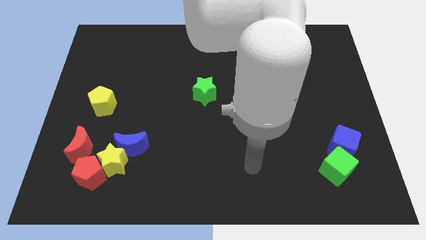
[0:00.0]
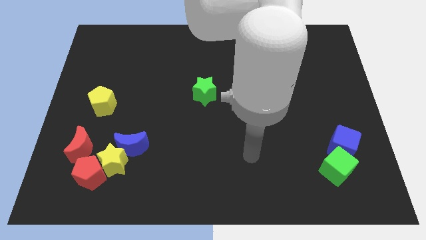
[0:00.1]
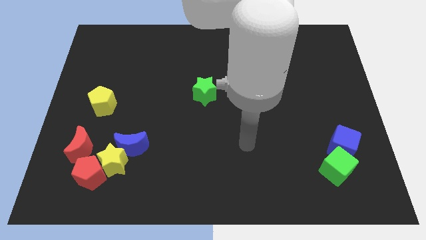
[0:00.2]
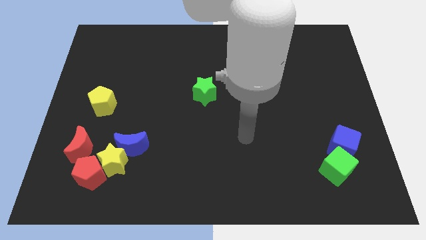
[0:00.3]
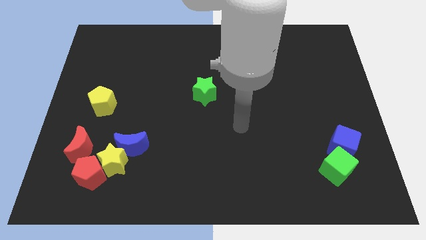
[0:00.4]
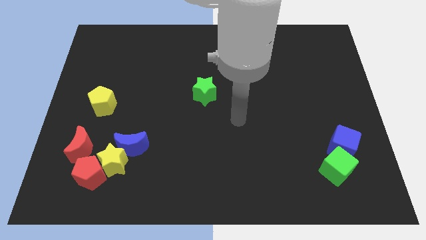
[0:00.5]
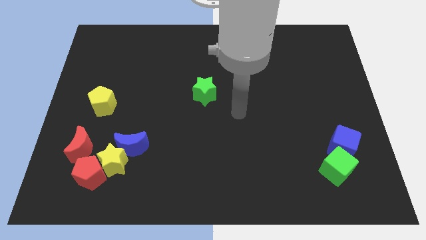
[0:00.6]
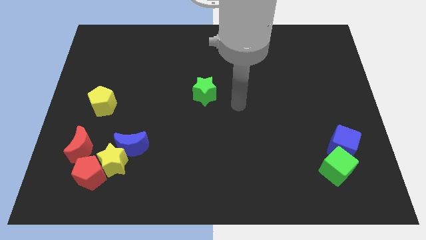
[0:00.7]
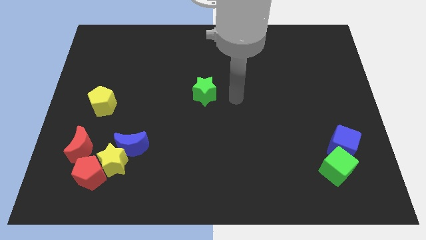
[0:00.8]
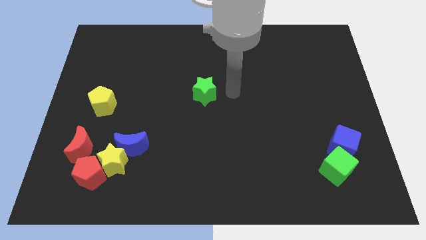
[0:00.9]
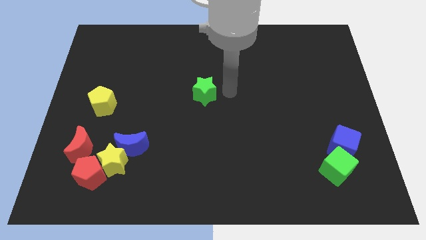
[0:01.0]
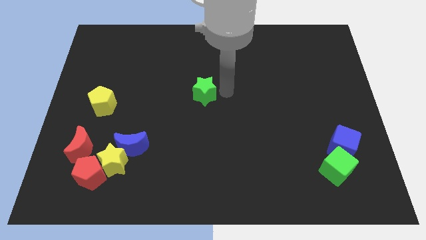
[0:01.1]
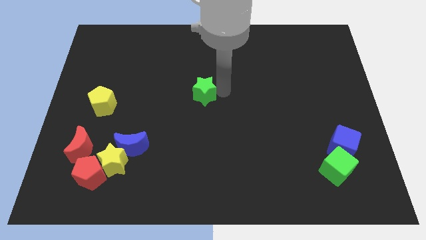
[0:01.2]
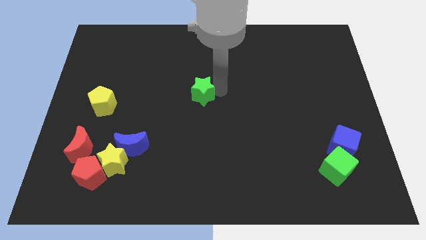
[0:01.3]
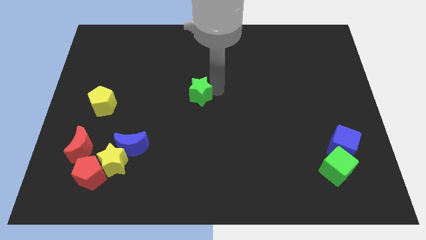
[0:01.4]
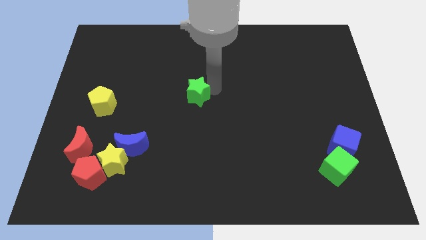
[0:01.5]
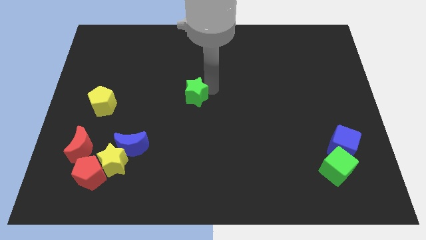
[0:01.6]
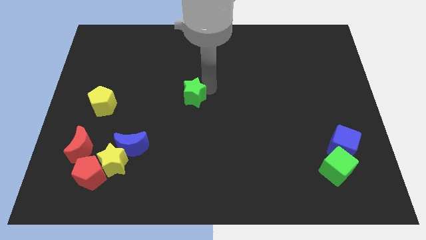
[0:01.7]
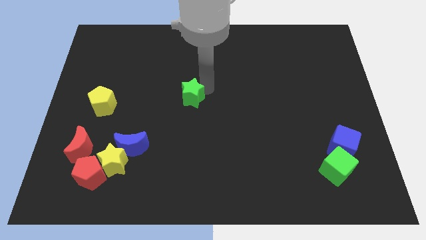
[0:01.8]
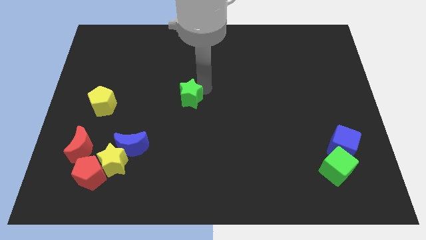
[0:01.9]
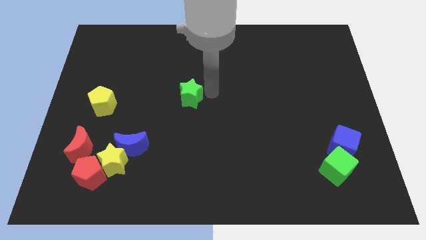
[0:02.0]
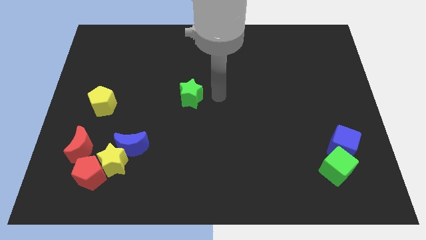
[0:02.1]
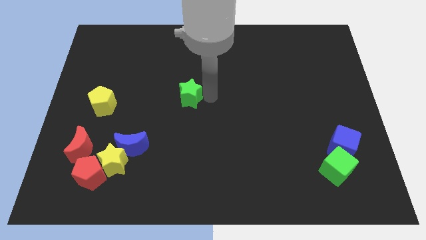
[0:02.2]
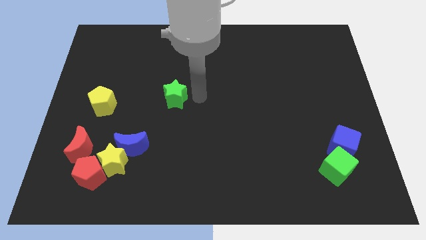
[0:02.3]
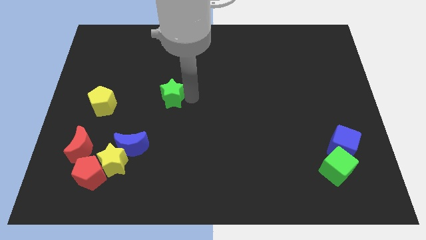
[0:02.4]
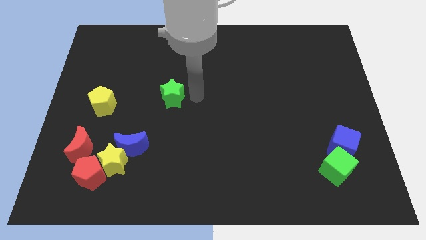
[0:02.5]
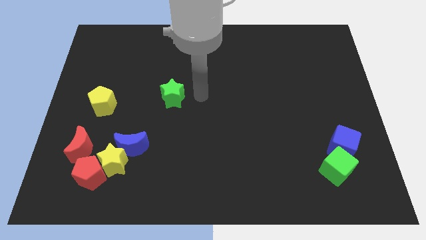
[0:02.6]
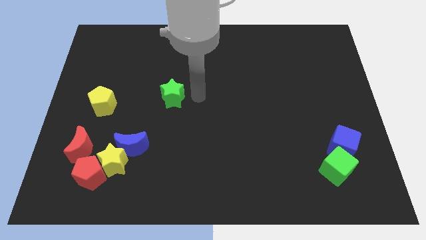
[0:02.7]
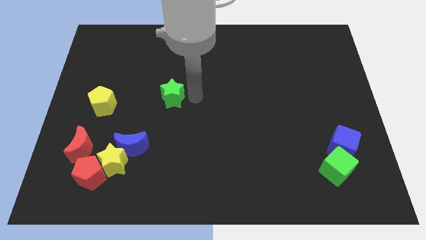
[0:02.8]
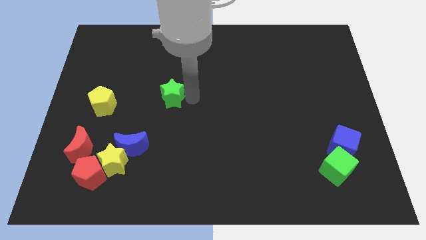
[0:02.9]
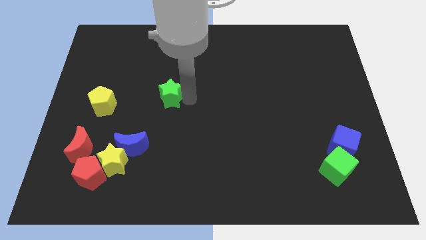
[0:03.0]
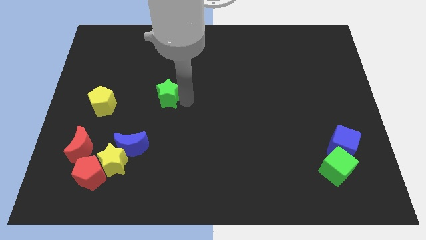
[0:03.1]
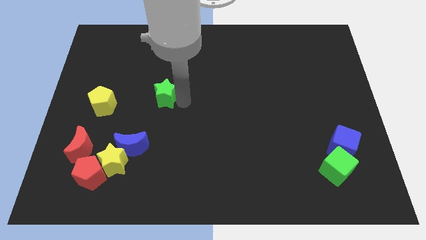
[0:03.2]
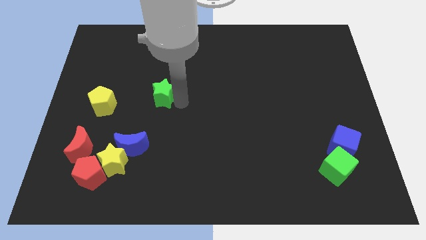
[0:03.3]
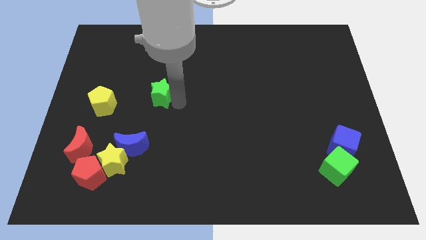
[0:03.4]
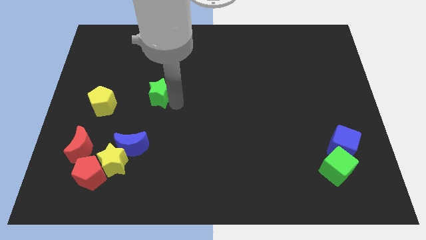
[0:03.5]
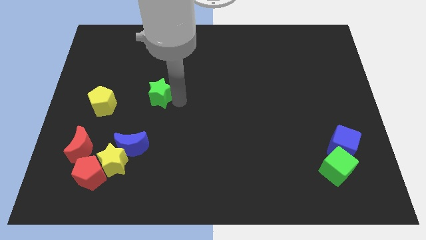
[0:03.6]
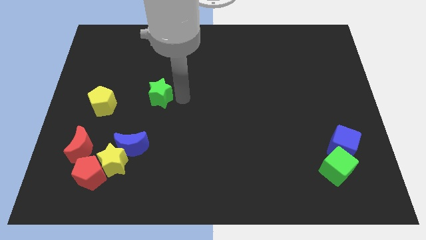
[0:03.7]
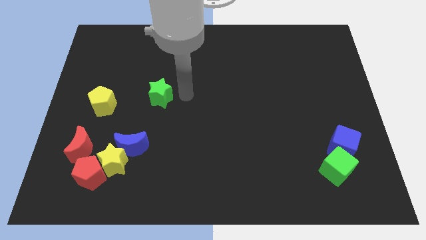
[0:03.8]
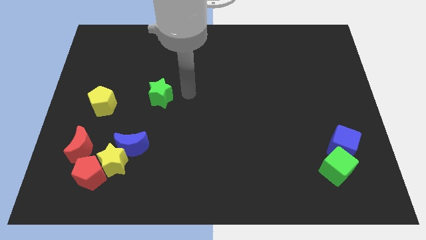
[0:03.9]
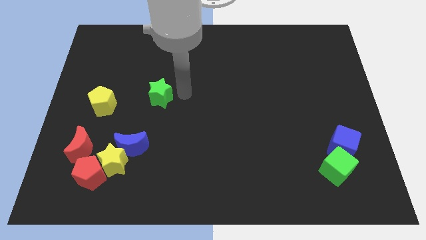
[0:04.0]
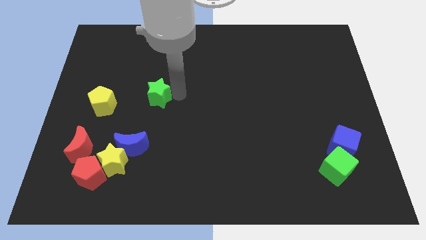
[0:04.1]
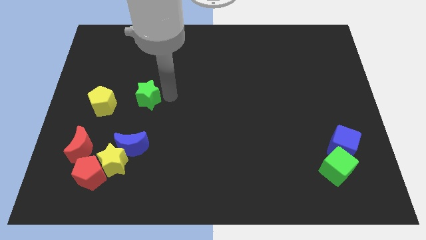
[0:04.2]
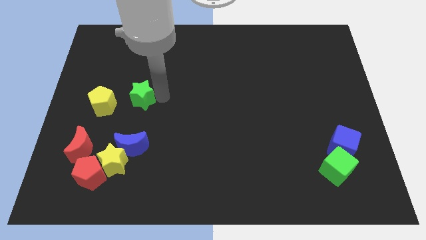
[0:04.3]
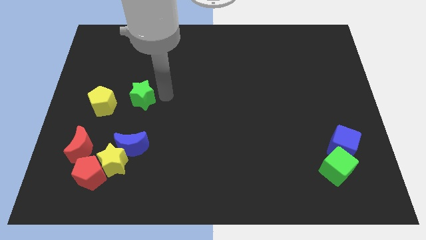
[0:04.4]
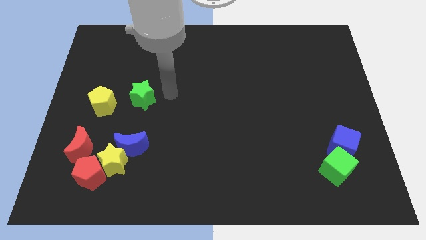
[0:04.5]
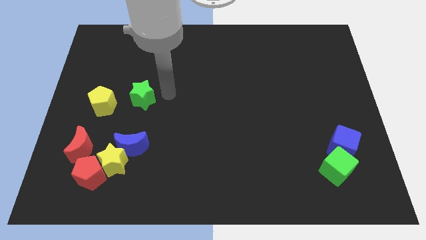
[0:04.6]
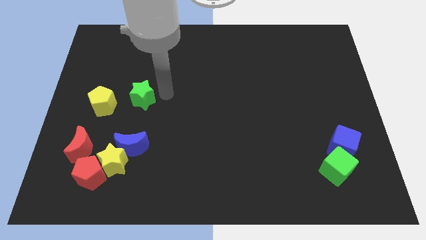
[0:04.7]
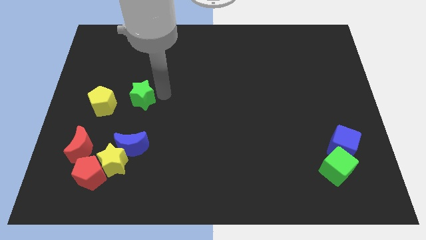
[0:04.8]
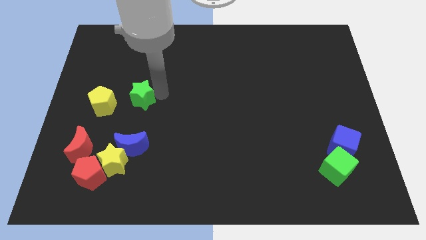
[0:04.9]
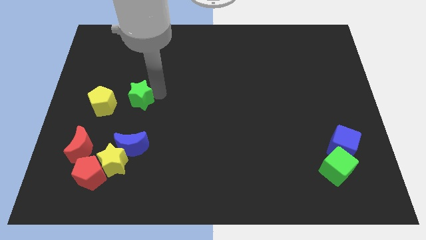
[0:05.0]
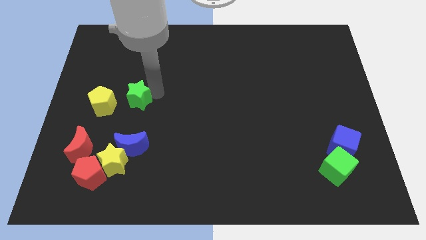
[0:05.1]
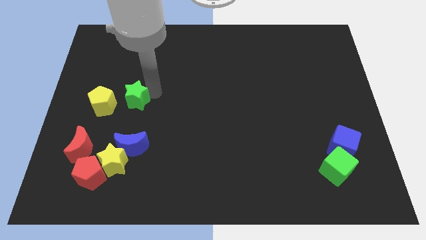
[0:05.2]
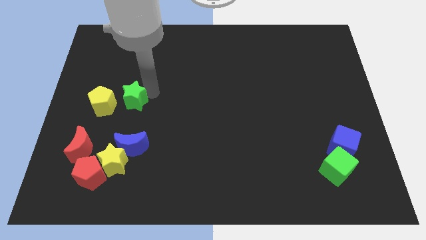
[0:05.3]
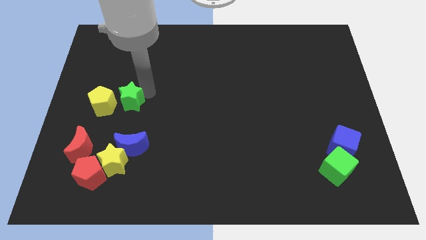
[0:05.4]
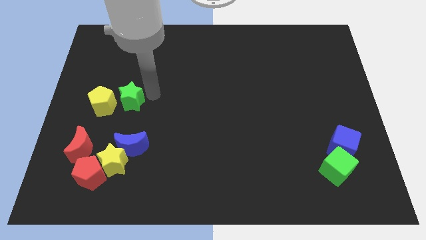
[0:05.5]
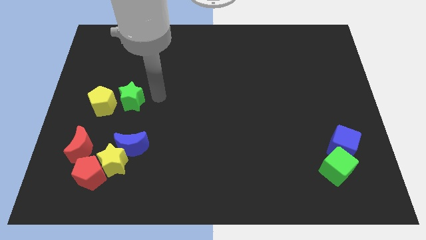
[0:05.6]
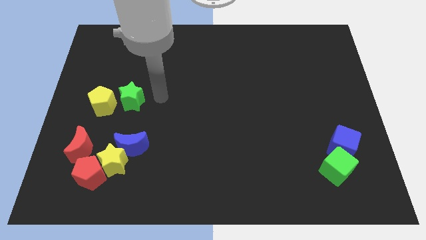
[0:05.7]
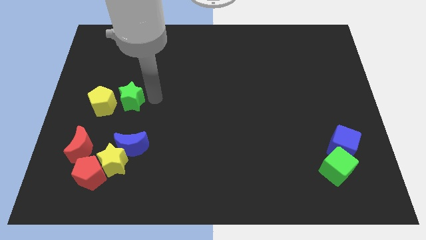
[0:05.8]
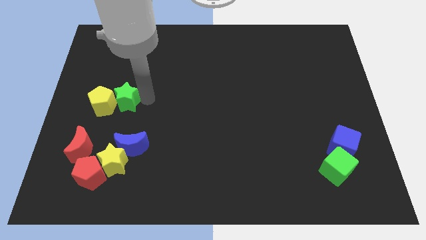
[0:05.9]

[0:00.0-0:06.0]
move the green star close to the yellow pentagon

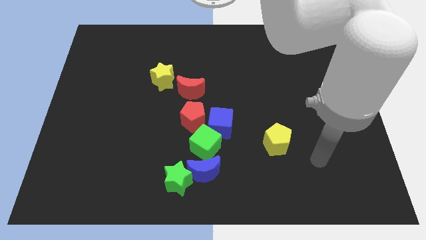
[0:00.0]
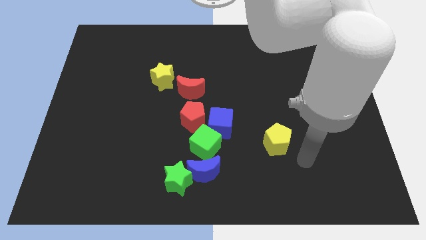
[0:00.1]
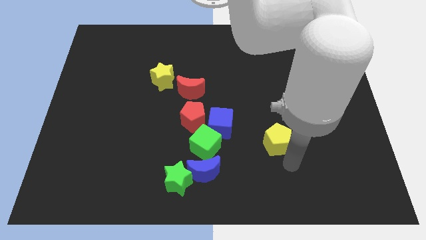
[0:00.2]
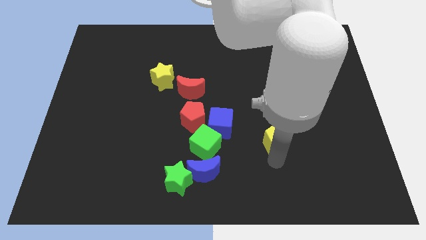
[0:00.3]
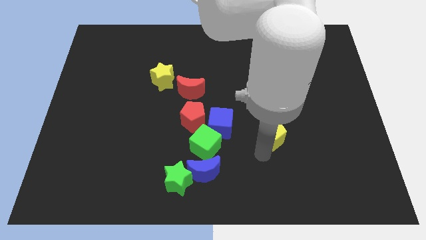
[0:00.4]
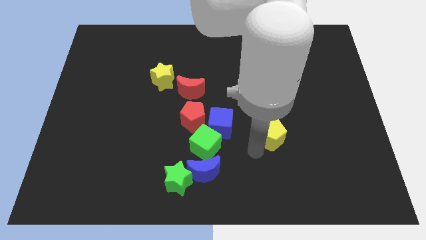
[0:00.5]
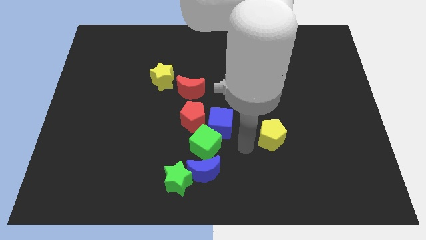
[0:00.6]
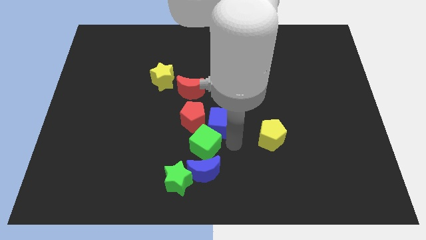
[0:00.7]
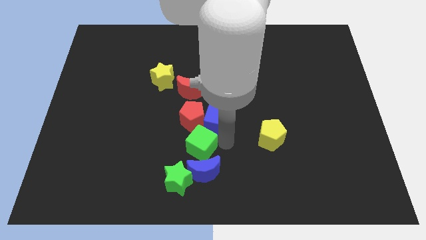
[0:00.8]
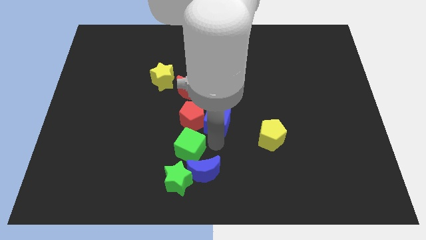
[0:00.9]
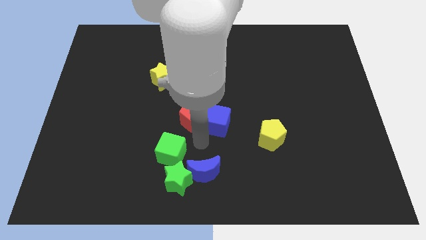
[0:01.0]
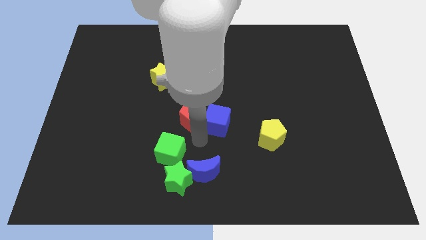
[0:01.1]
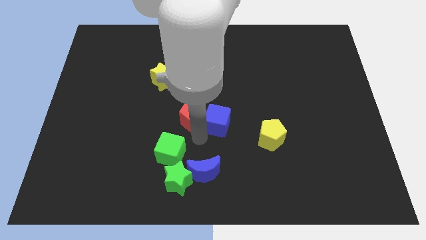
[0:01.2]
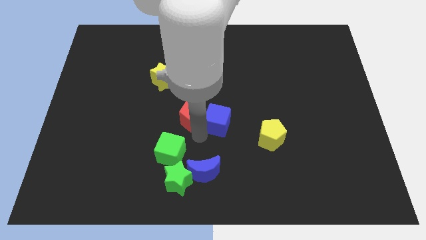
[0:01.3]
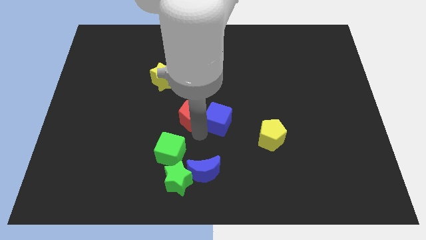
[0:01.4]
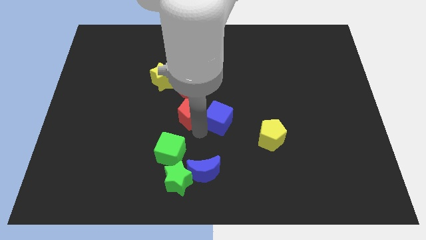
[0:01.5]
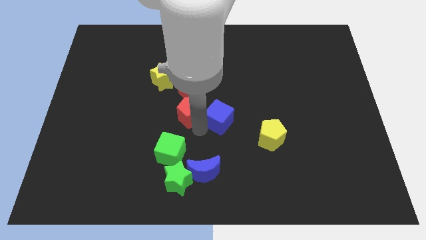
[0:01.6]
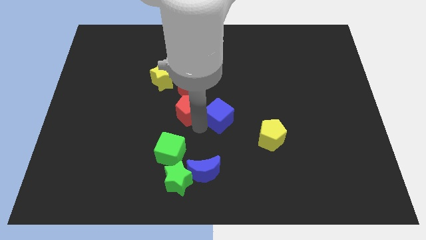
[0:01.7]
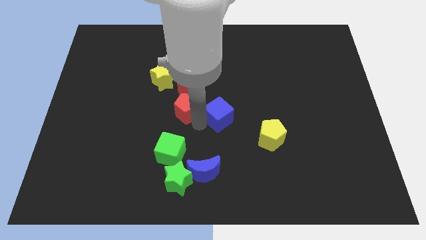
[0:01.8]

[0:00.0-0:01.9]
push the red pentagon to the red moon
